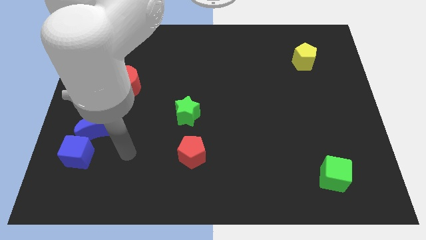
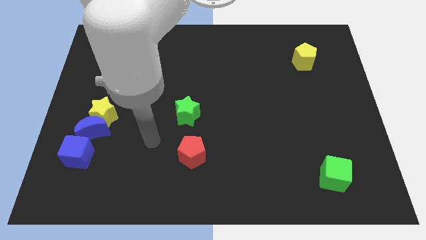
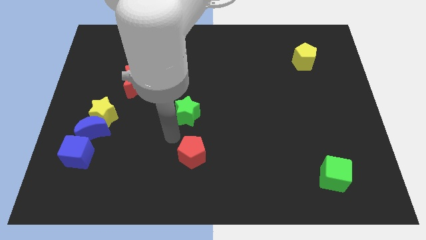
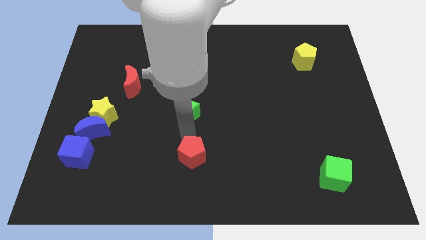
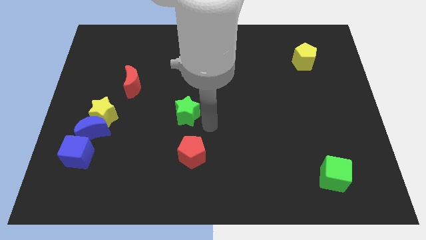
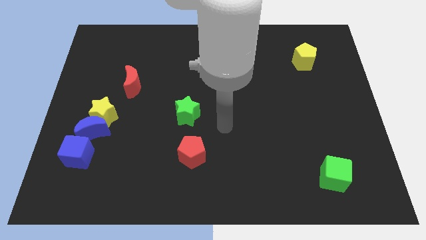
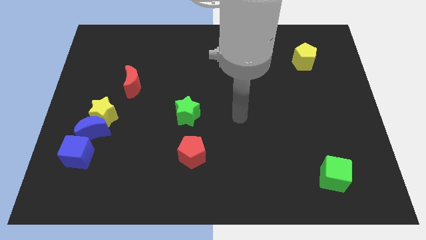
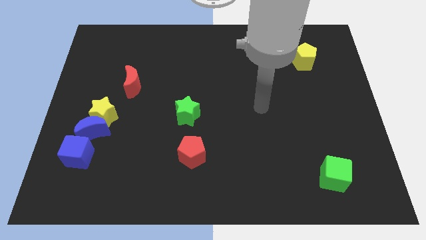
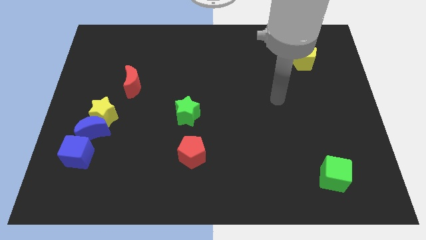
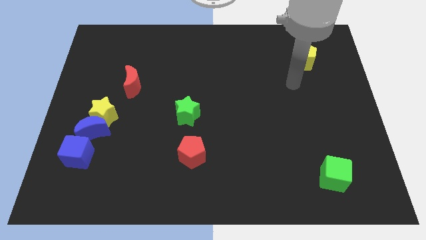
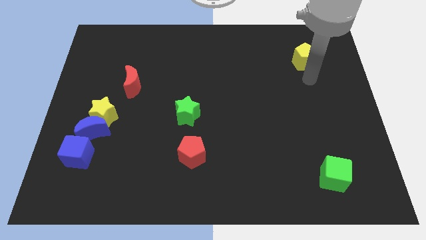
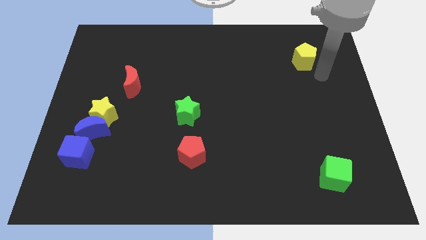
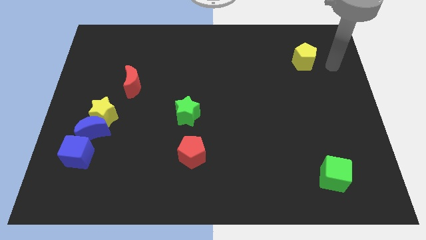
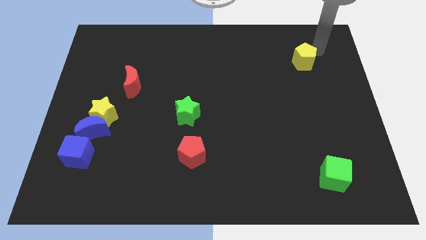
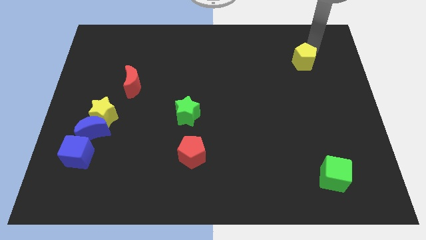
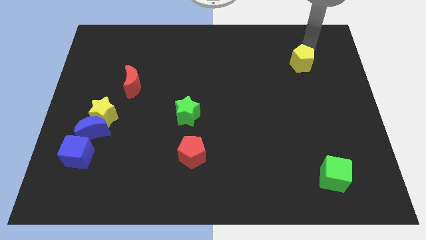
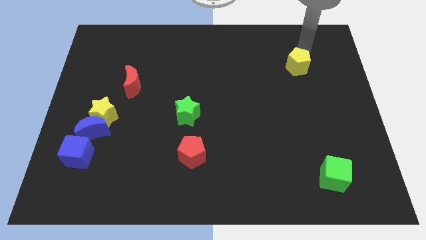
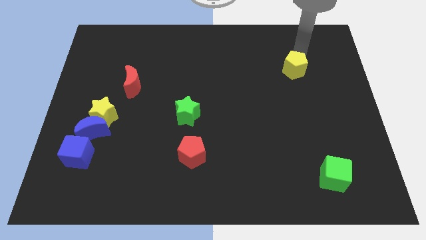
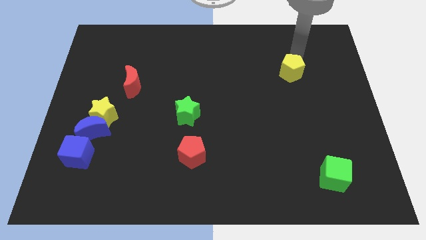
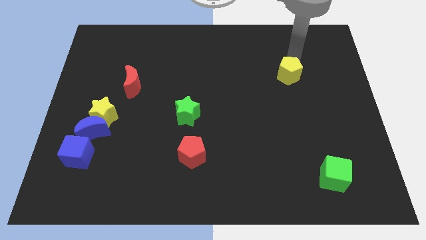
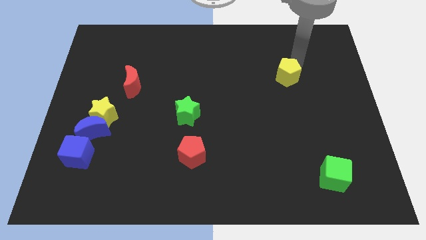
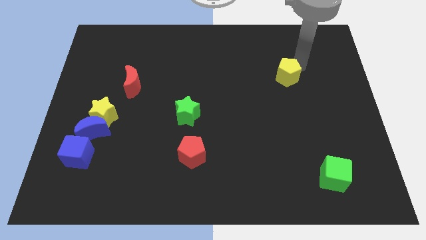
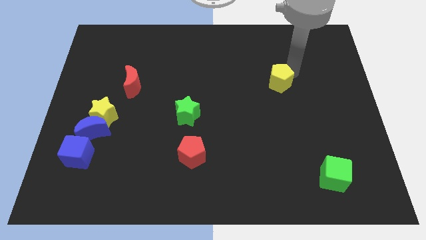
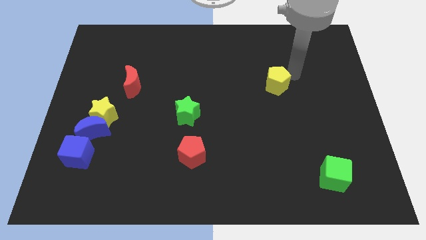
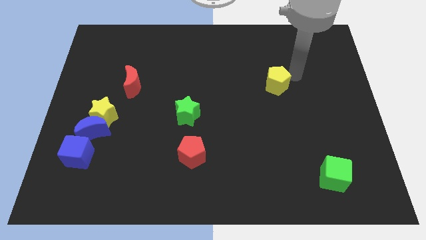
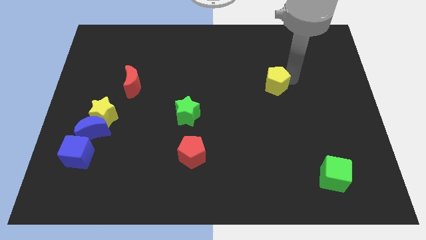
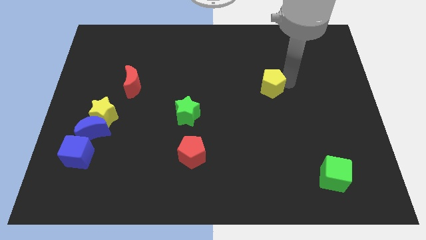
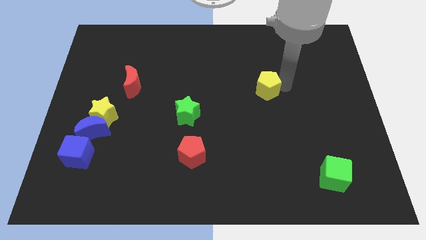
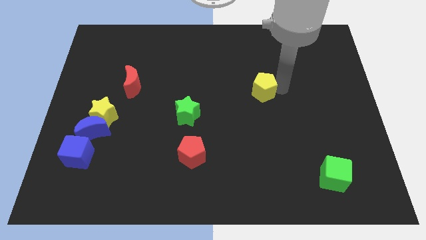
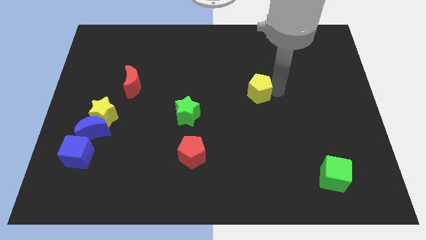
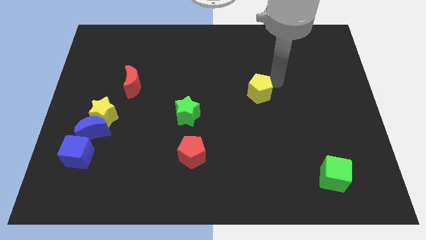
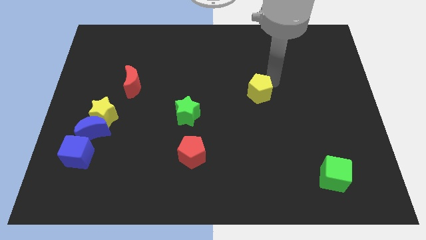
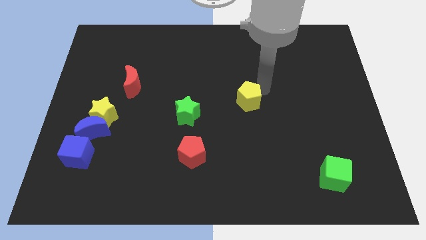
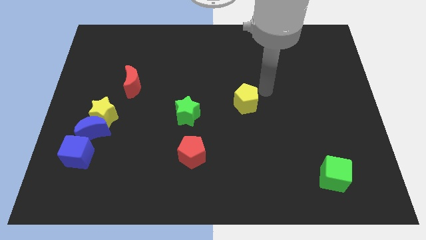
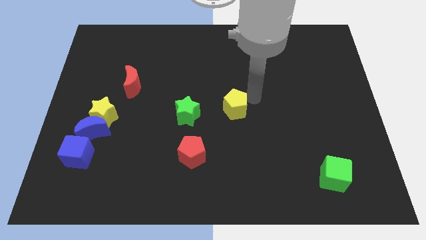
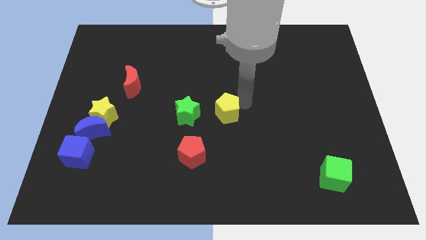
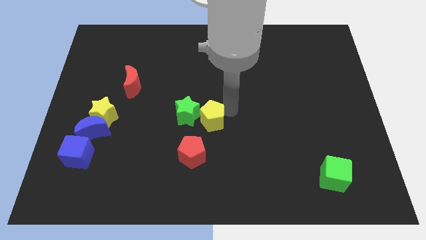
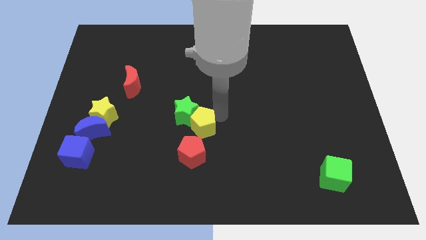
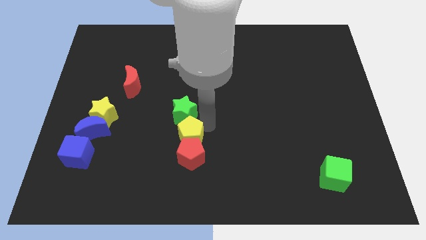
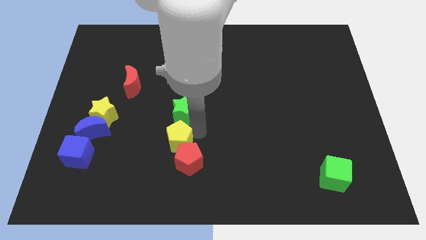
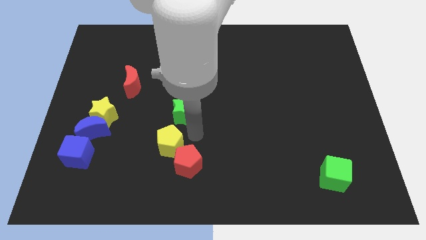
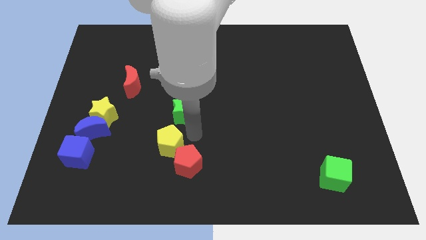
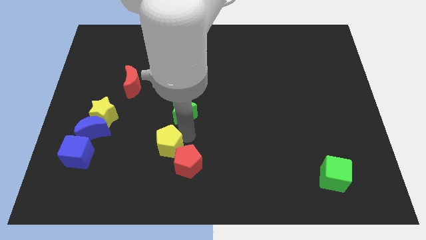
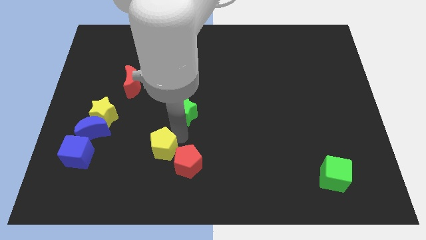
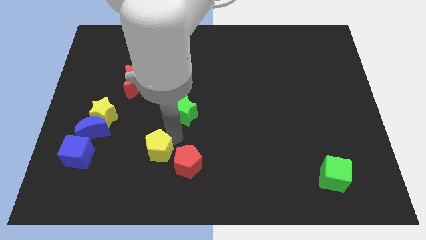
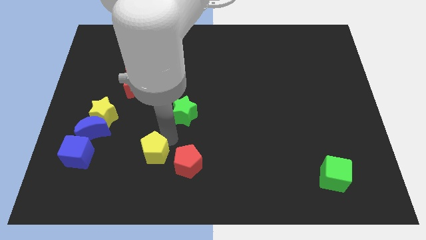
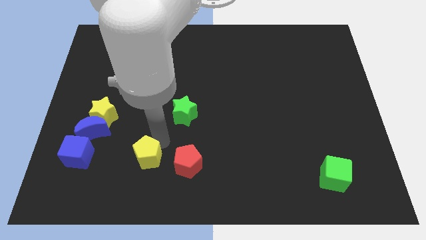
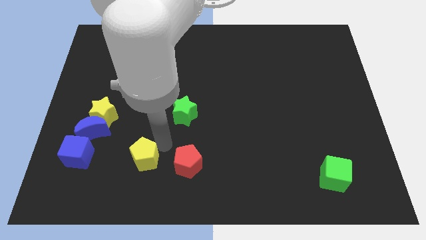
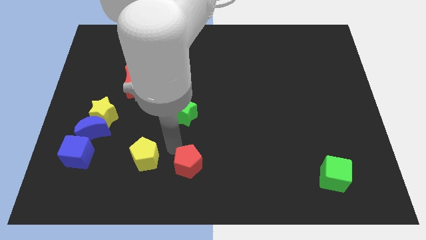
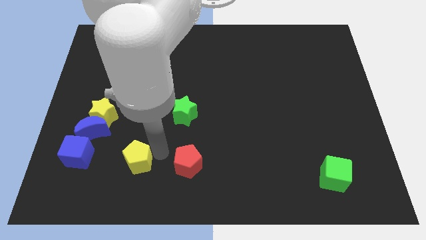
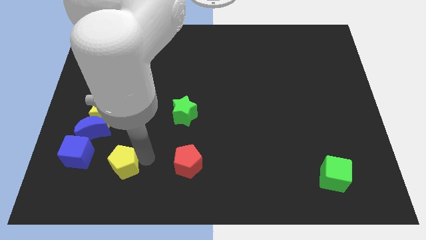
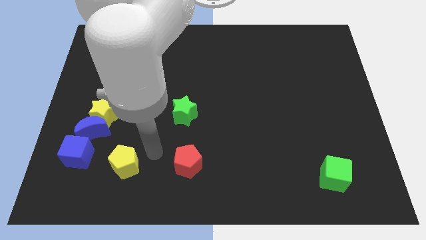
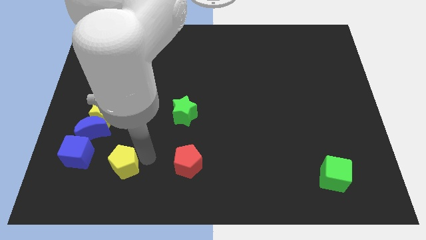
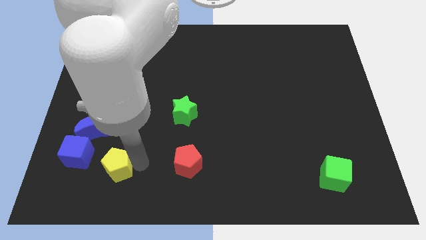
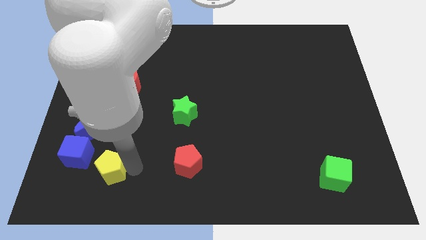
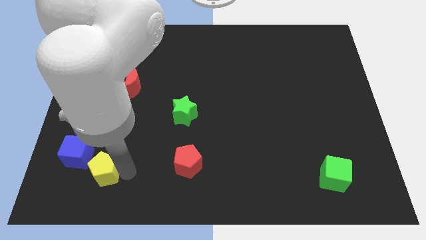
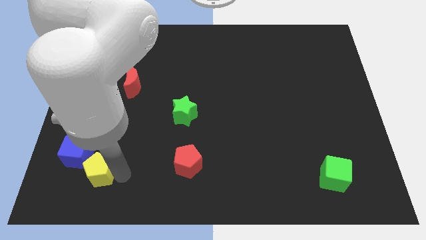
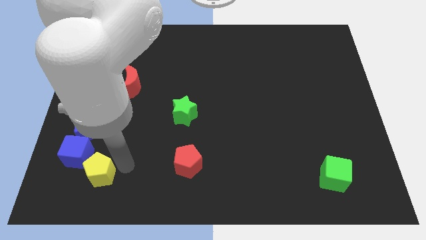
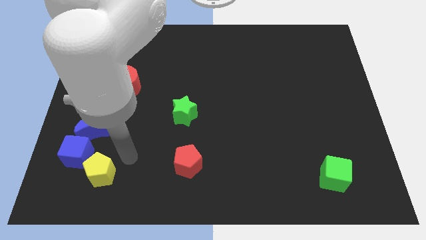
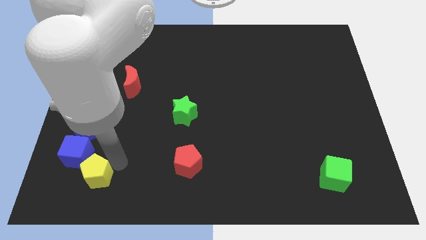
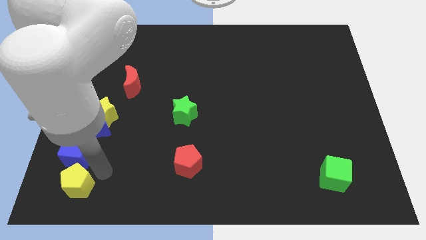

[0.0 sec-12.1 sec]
push the yellow pentagon to the bottom left of the board
